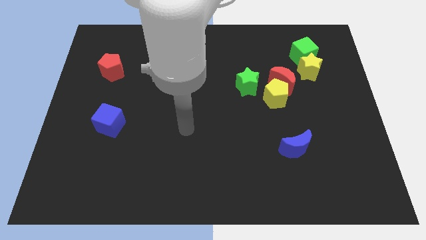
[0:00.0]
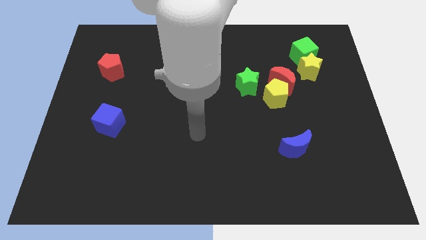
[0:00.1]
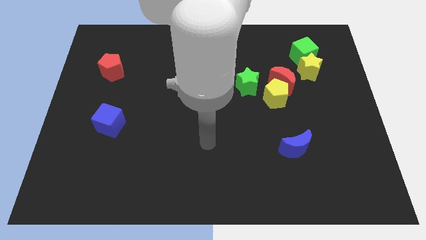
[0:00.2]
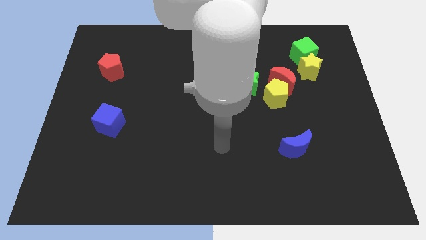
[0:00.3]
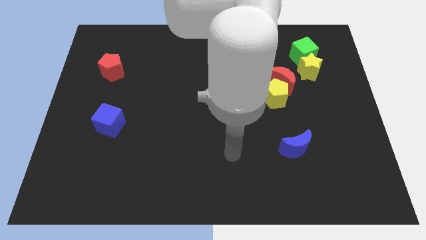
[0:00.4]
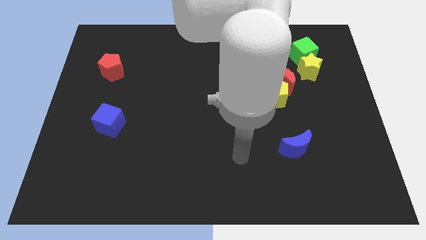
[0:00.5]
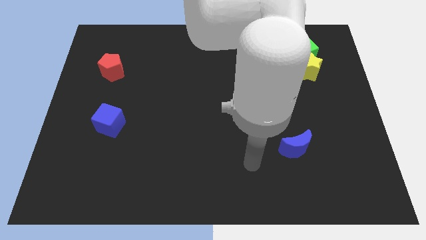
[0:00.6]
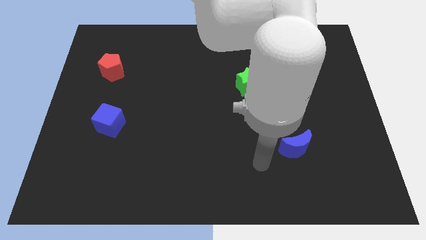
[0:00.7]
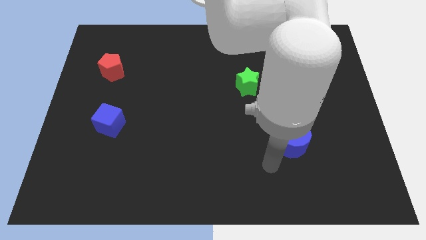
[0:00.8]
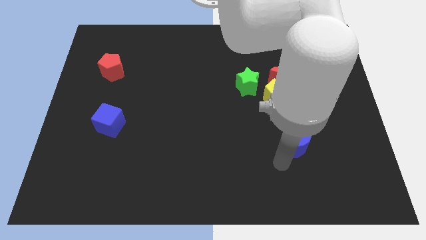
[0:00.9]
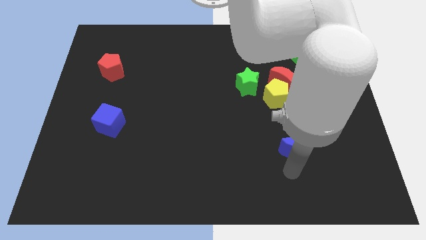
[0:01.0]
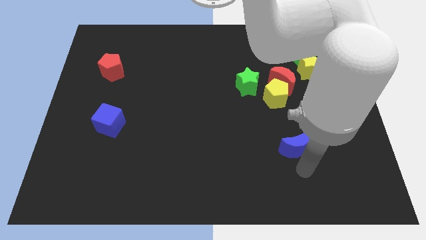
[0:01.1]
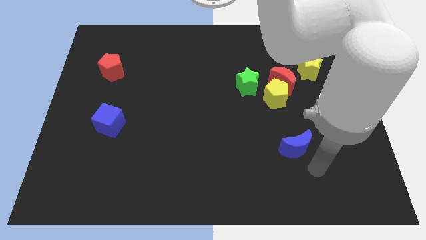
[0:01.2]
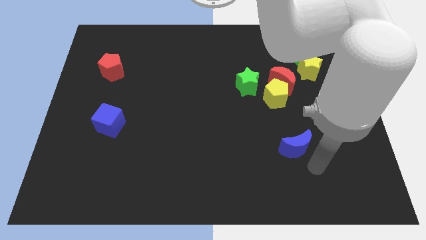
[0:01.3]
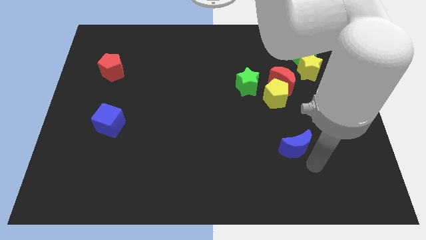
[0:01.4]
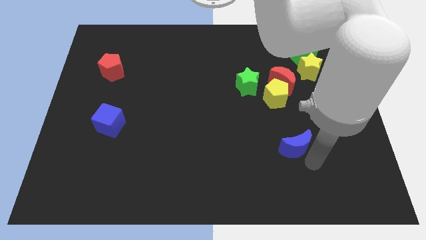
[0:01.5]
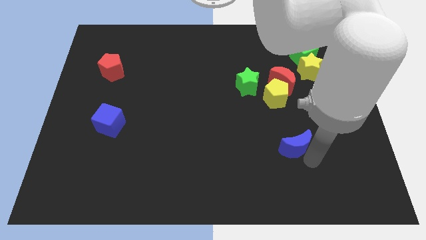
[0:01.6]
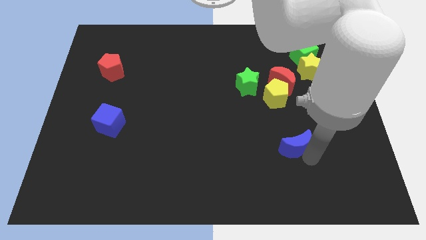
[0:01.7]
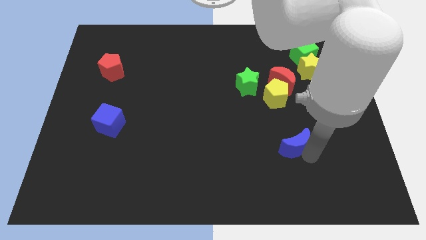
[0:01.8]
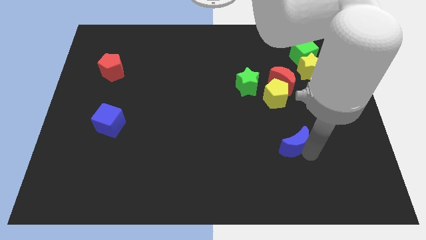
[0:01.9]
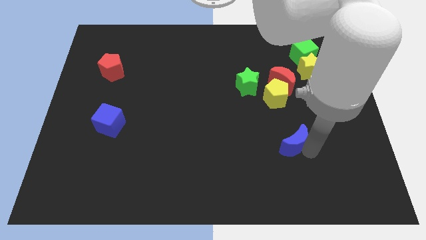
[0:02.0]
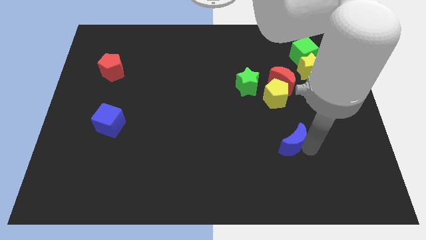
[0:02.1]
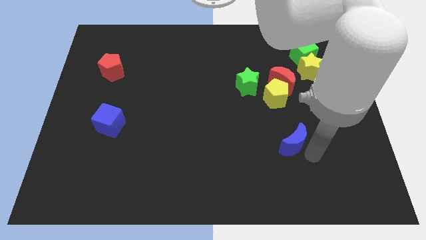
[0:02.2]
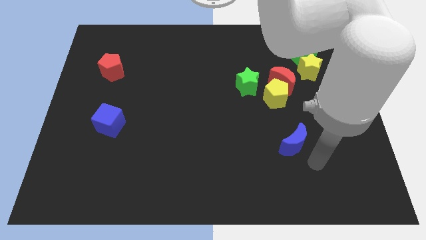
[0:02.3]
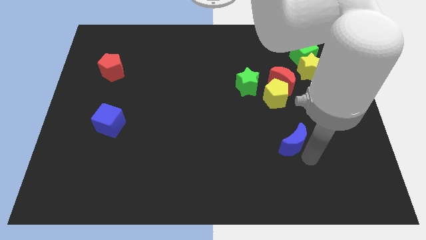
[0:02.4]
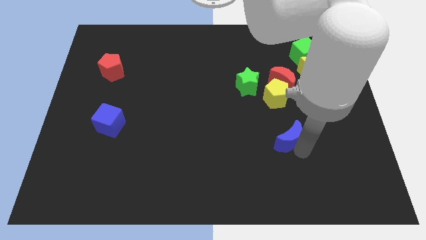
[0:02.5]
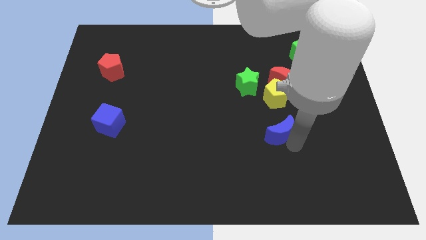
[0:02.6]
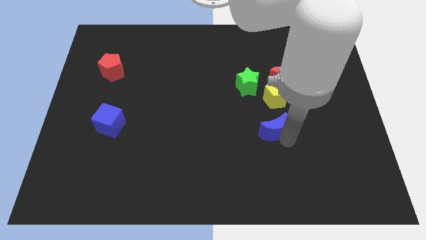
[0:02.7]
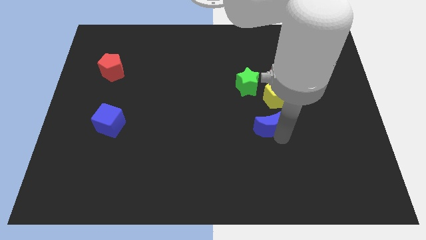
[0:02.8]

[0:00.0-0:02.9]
move the blue moon upwards and left diagonally slightly

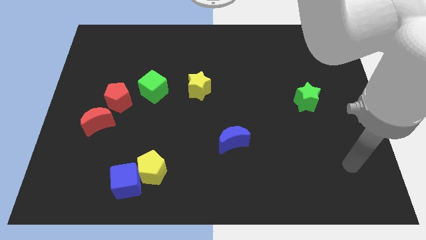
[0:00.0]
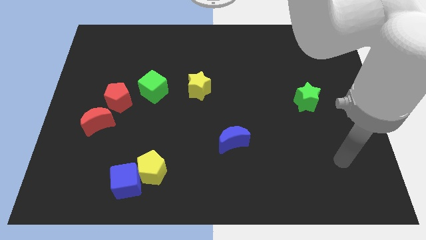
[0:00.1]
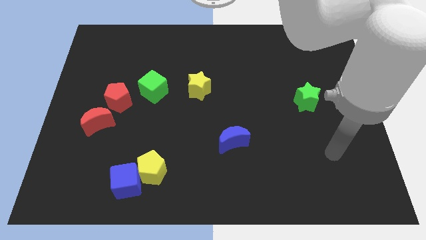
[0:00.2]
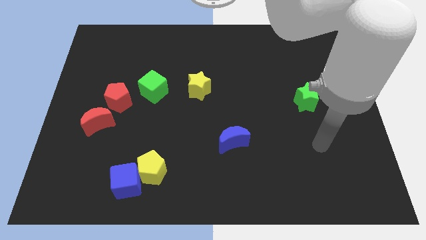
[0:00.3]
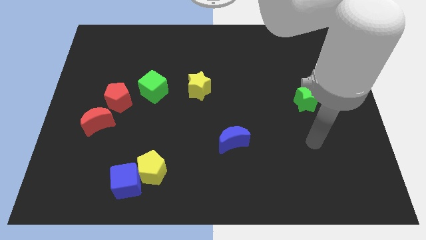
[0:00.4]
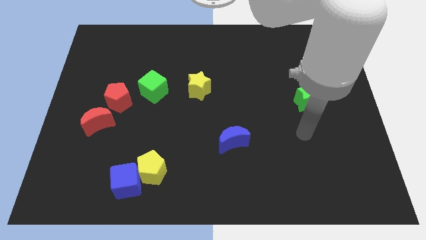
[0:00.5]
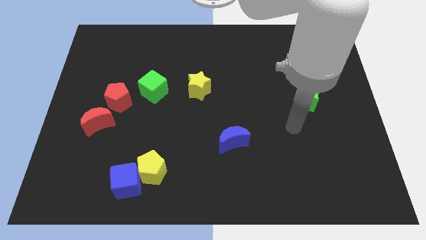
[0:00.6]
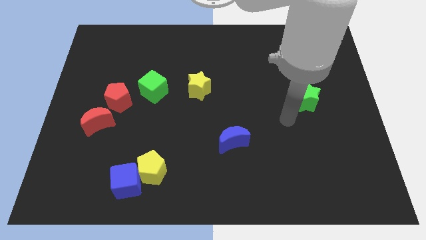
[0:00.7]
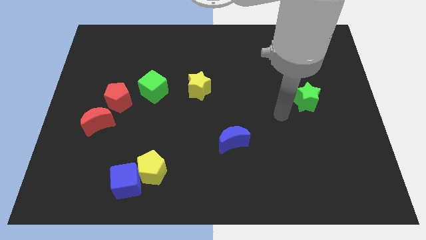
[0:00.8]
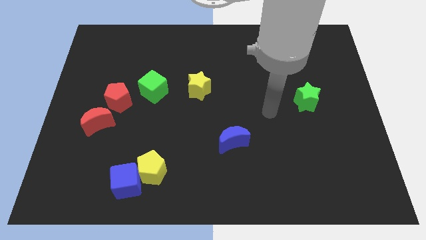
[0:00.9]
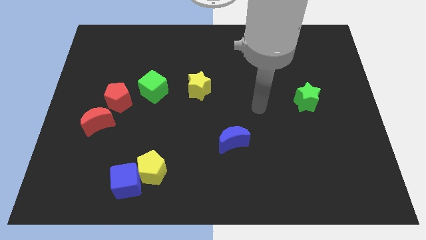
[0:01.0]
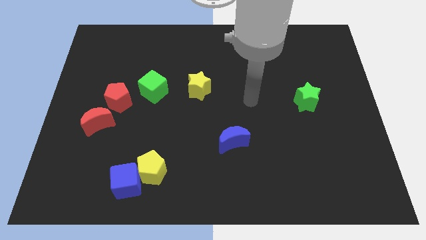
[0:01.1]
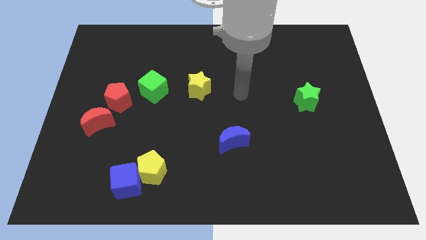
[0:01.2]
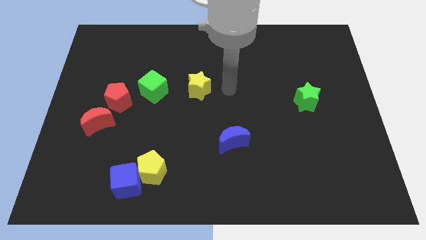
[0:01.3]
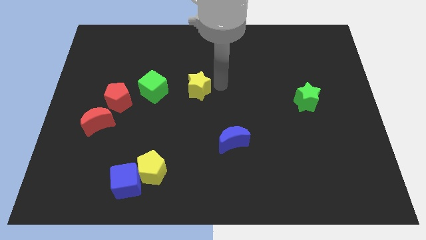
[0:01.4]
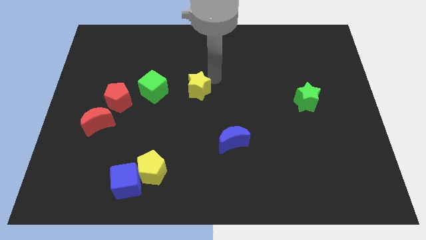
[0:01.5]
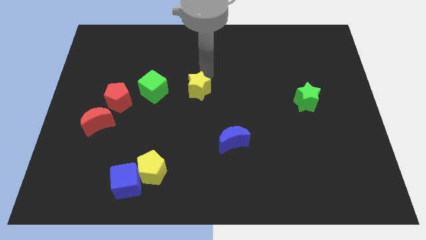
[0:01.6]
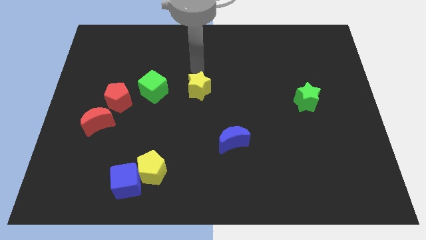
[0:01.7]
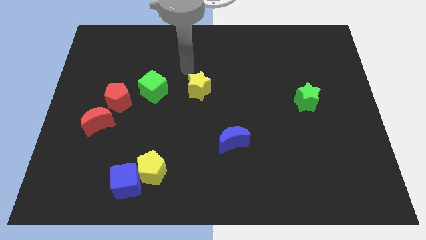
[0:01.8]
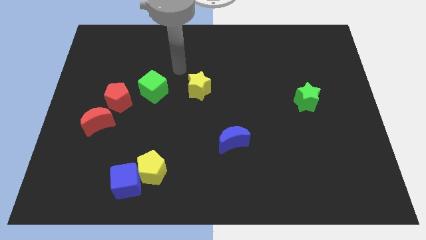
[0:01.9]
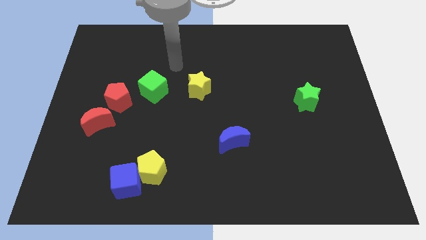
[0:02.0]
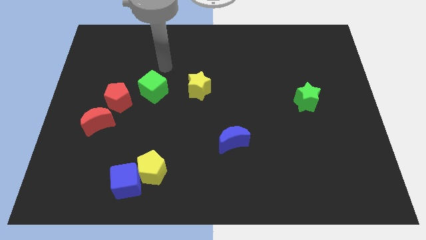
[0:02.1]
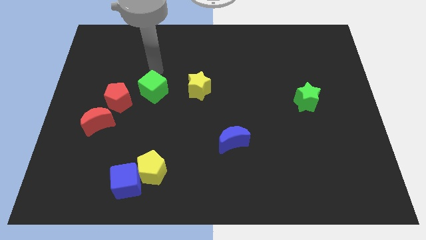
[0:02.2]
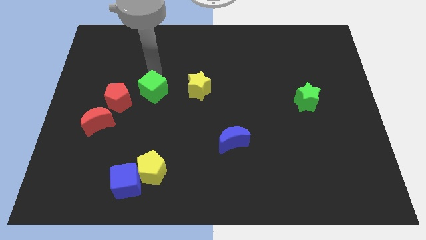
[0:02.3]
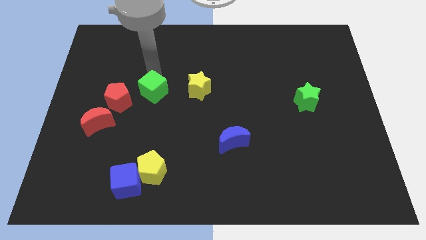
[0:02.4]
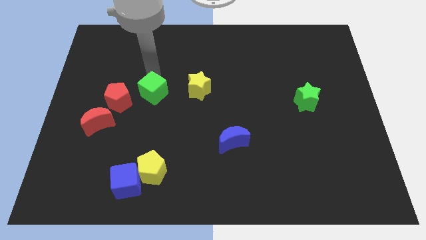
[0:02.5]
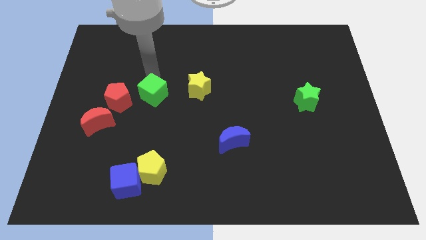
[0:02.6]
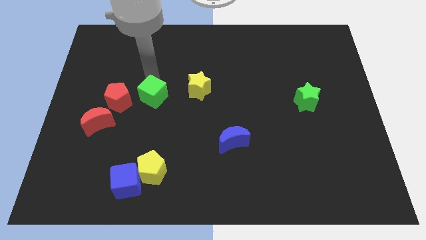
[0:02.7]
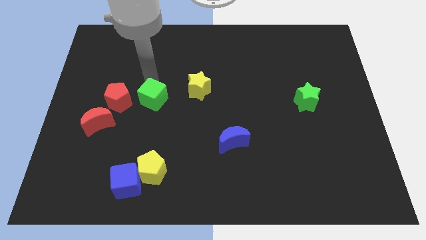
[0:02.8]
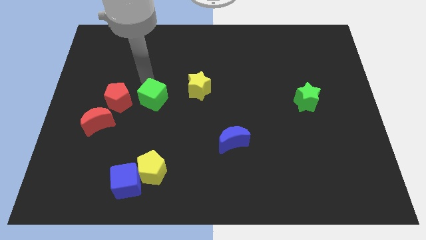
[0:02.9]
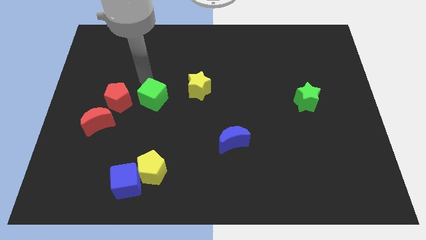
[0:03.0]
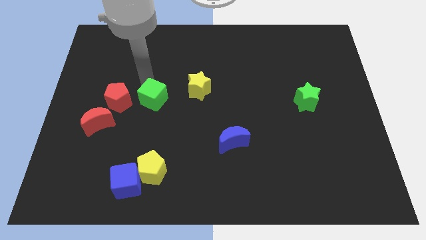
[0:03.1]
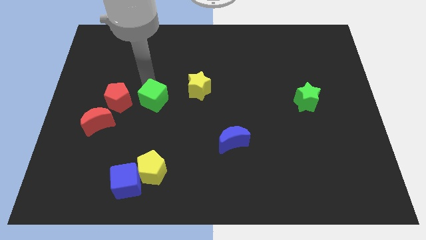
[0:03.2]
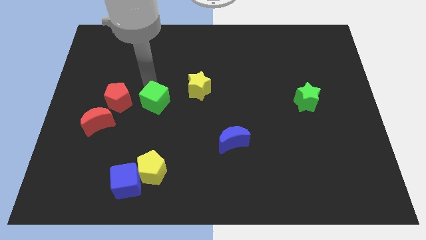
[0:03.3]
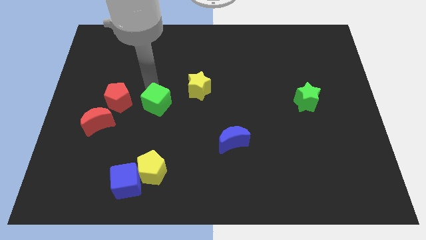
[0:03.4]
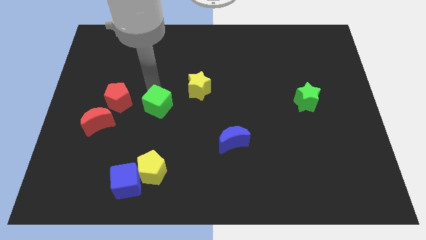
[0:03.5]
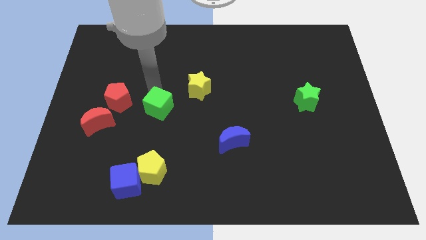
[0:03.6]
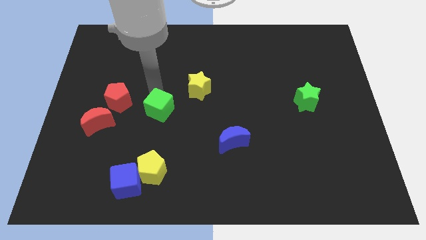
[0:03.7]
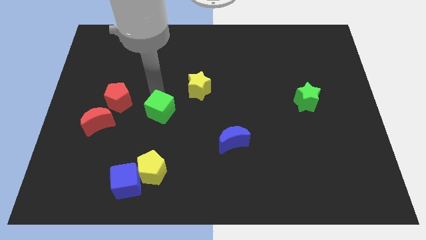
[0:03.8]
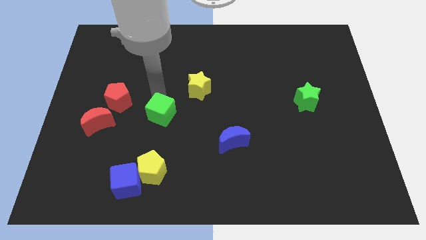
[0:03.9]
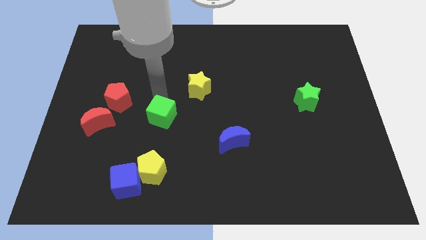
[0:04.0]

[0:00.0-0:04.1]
move the green cube a little downwards and right diagonally

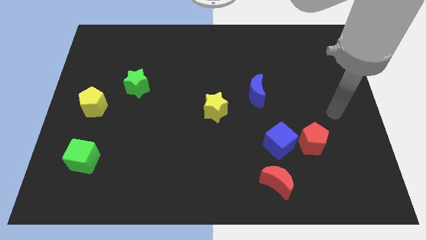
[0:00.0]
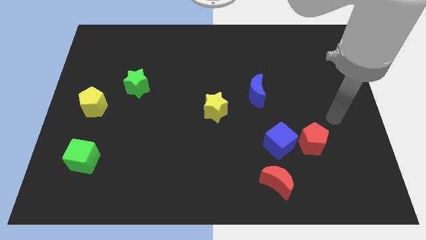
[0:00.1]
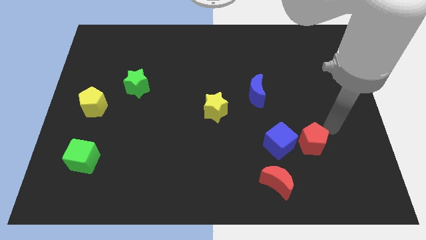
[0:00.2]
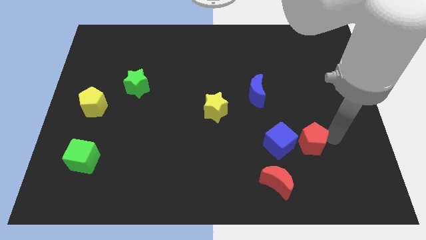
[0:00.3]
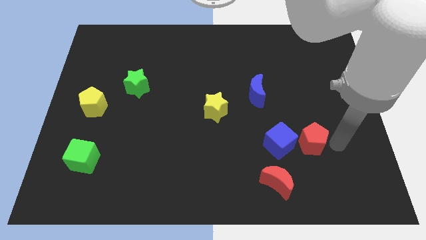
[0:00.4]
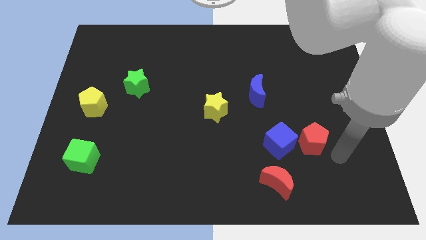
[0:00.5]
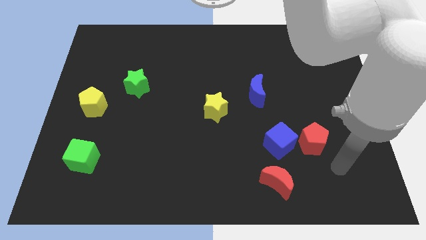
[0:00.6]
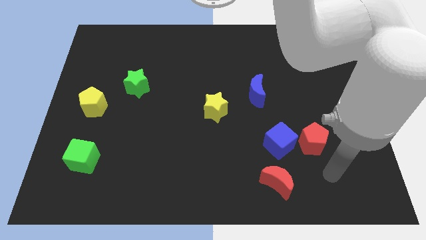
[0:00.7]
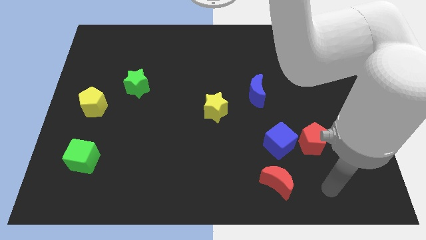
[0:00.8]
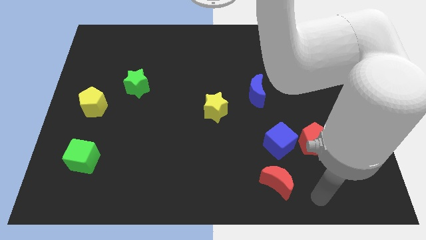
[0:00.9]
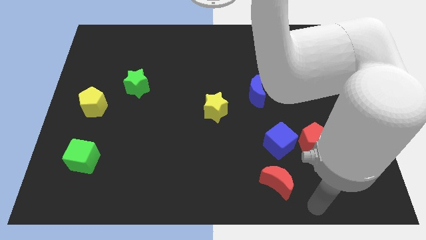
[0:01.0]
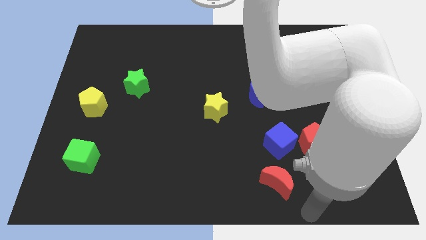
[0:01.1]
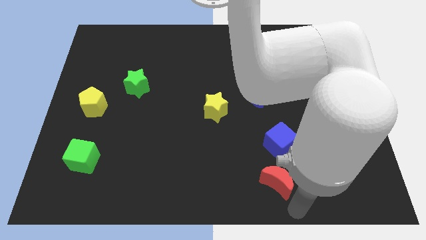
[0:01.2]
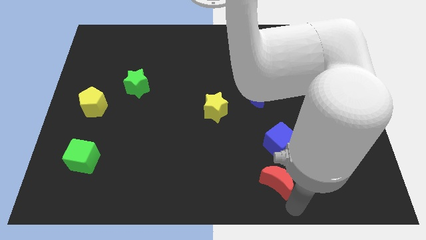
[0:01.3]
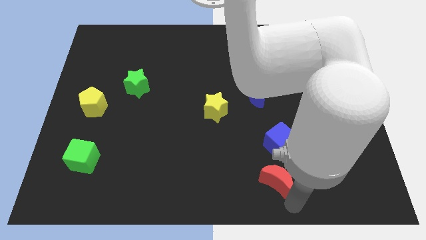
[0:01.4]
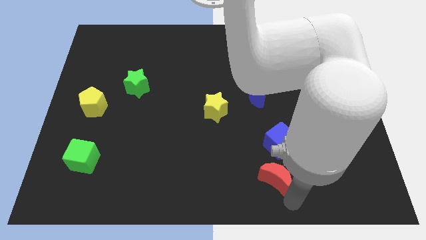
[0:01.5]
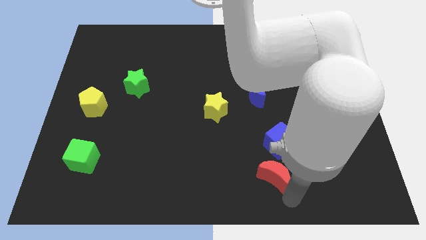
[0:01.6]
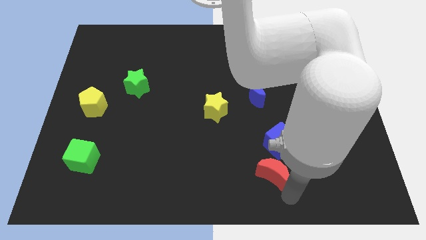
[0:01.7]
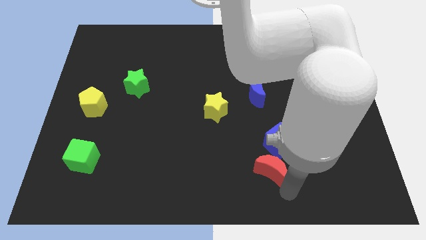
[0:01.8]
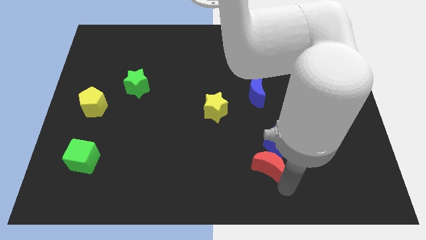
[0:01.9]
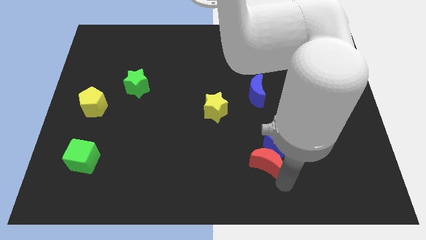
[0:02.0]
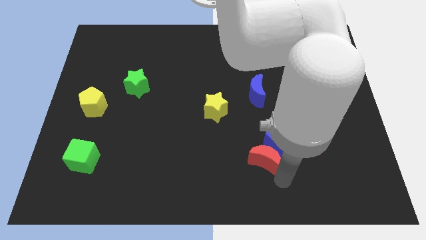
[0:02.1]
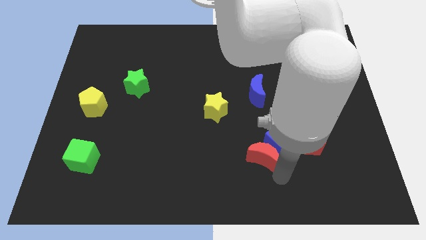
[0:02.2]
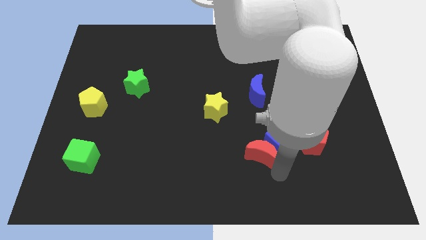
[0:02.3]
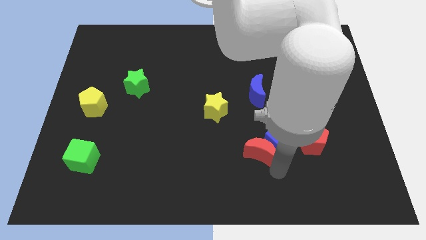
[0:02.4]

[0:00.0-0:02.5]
move the red moon slightly upwards
